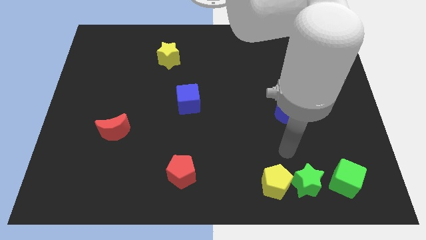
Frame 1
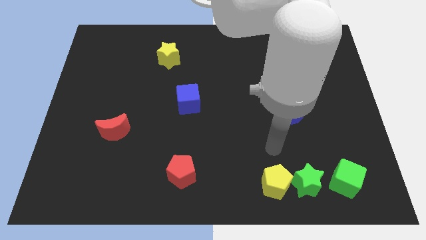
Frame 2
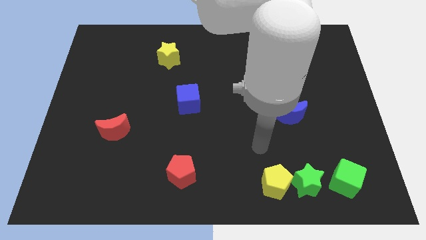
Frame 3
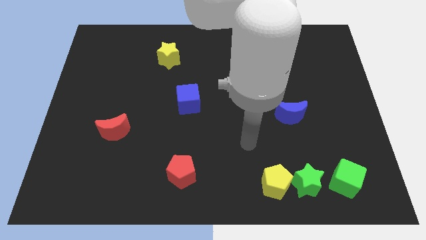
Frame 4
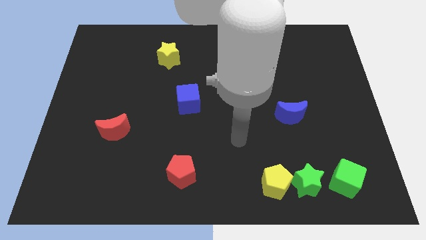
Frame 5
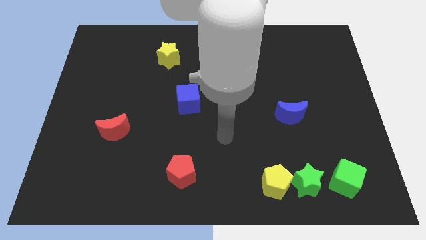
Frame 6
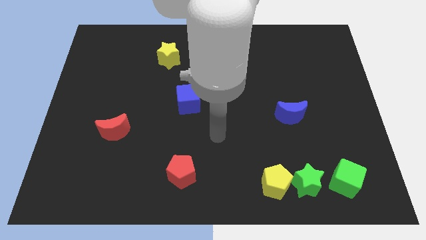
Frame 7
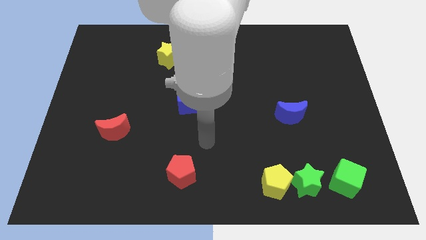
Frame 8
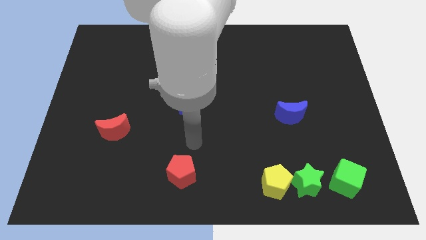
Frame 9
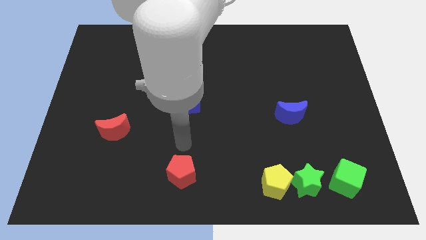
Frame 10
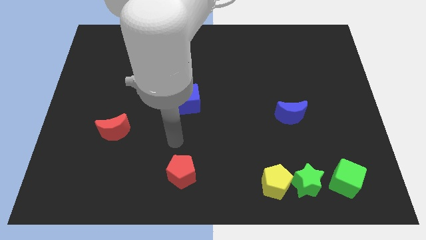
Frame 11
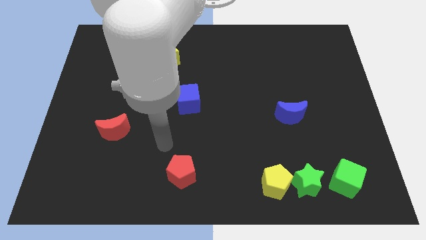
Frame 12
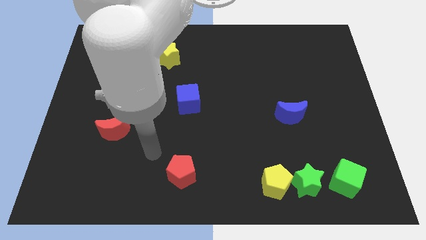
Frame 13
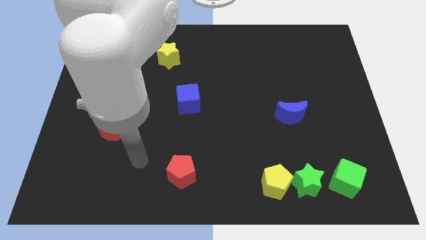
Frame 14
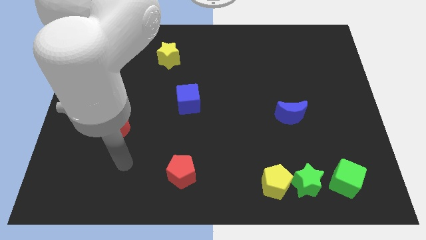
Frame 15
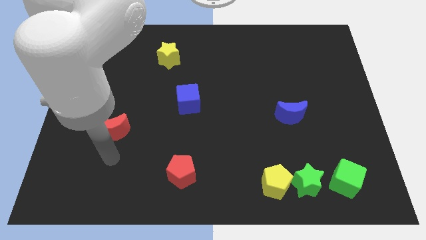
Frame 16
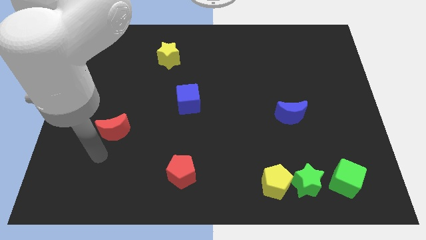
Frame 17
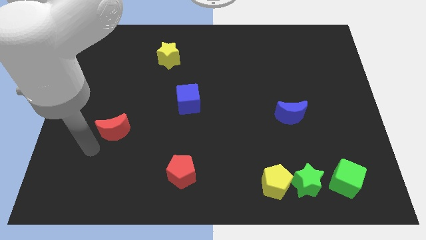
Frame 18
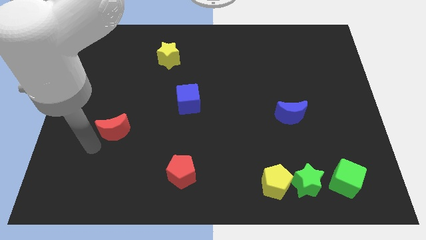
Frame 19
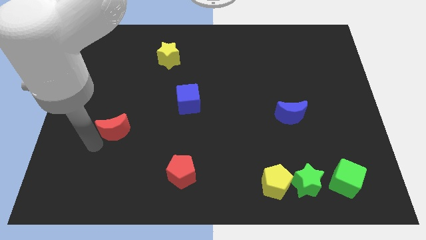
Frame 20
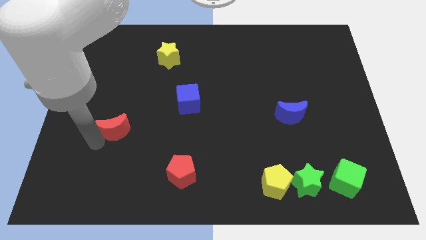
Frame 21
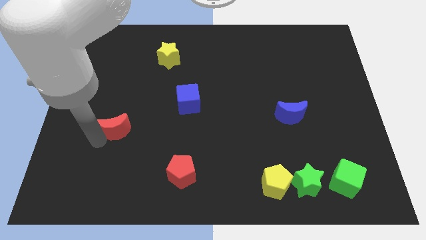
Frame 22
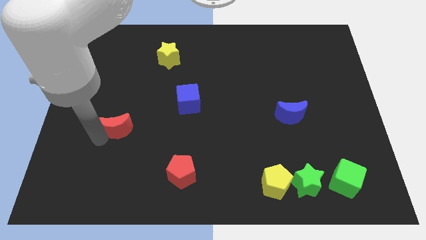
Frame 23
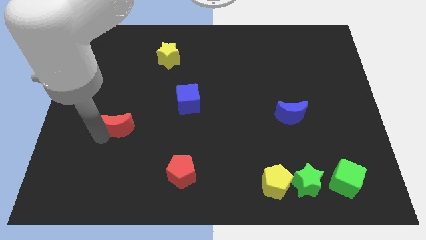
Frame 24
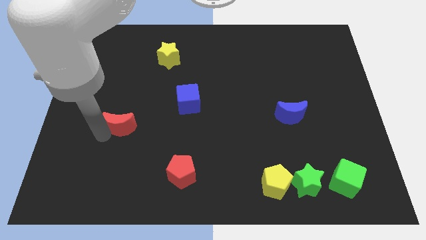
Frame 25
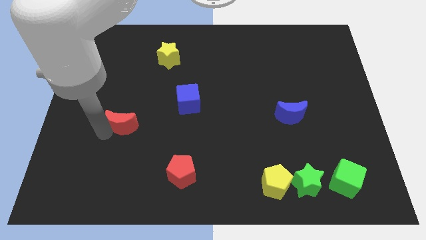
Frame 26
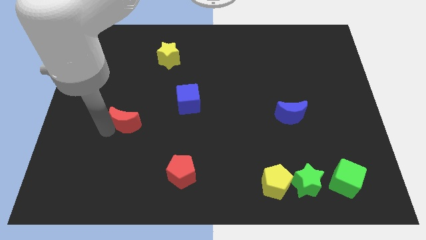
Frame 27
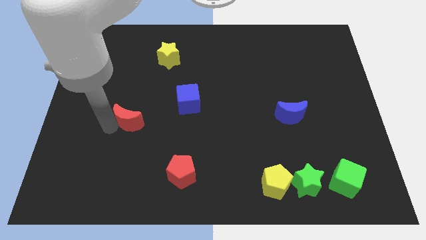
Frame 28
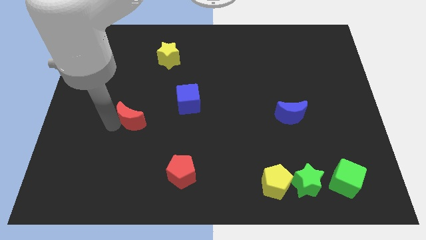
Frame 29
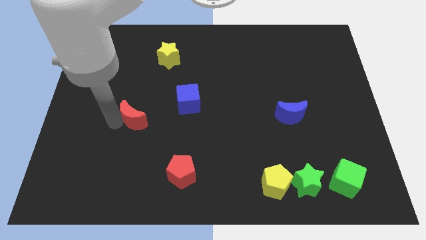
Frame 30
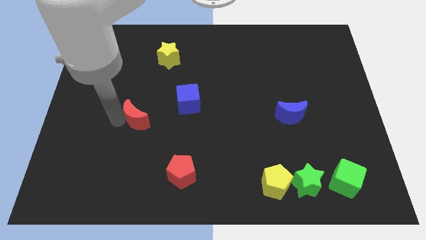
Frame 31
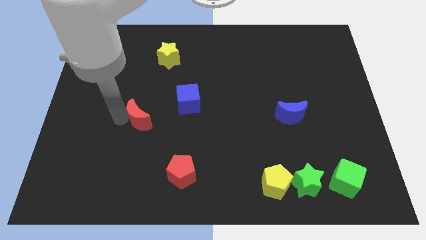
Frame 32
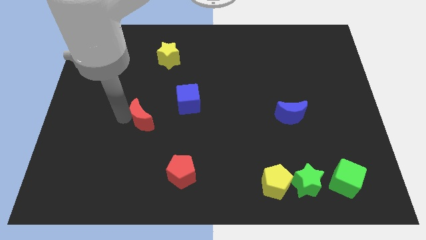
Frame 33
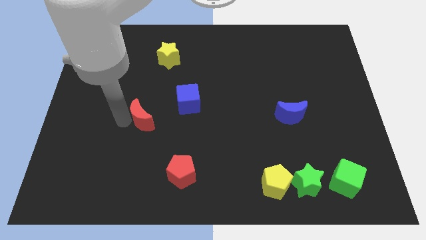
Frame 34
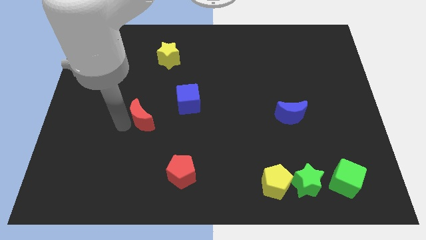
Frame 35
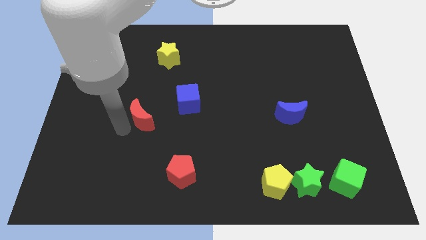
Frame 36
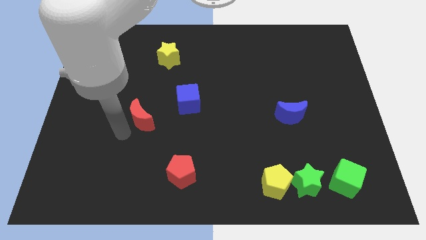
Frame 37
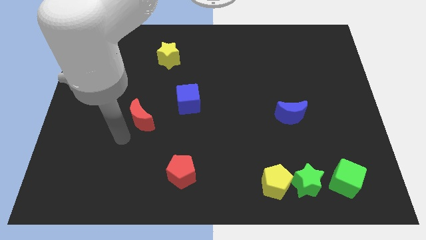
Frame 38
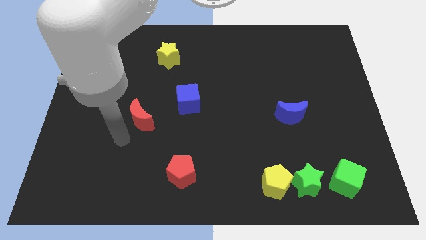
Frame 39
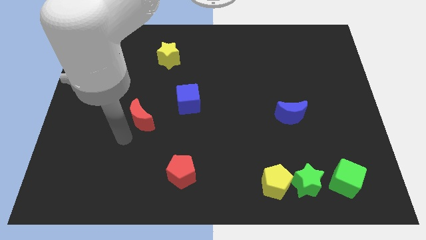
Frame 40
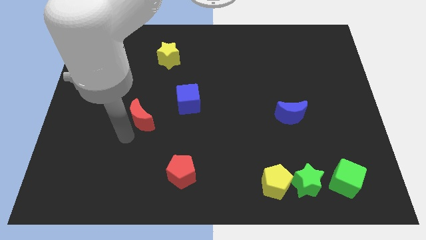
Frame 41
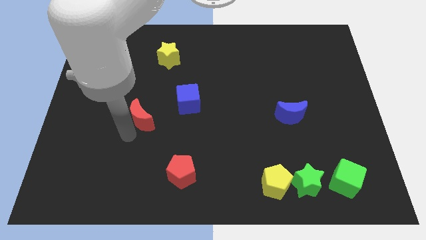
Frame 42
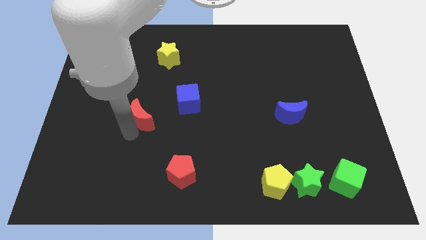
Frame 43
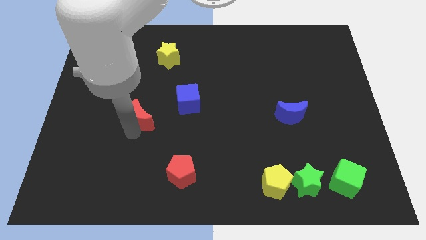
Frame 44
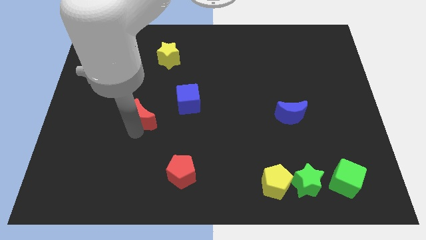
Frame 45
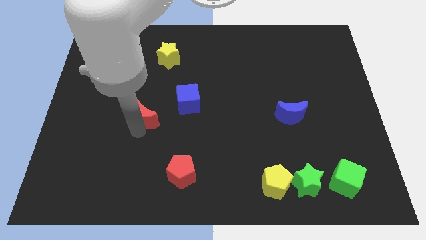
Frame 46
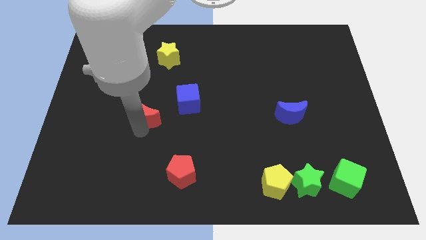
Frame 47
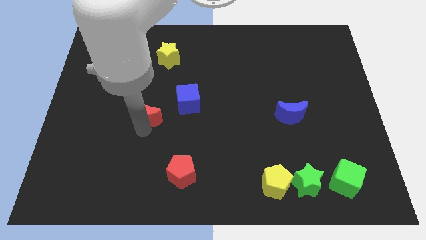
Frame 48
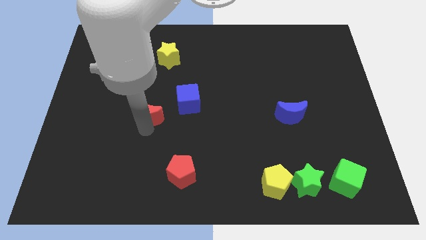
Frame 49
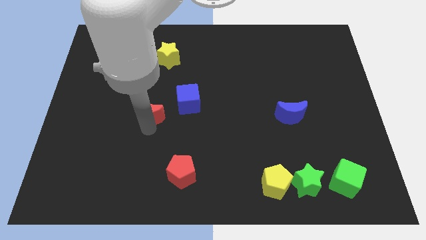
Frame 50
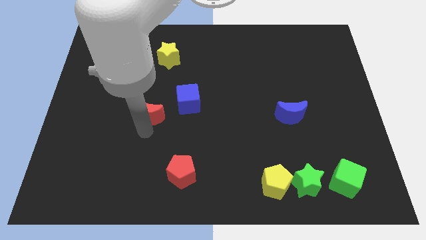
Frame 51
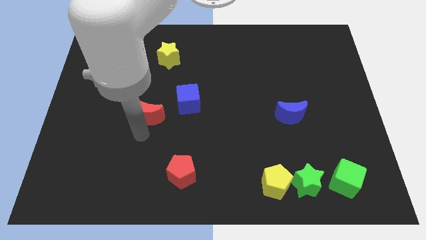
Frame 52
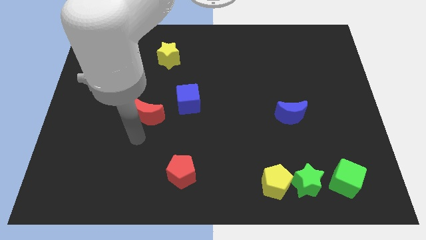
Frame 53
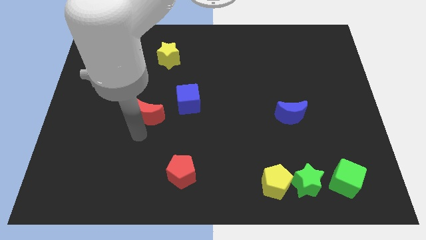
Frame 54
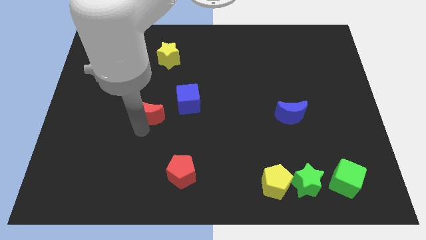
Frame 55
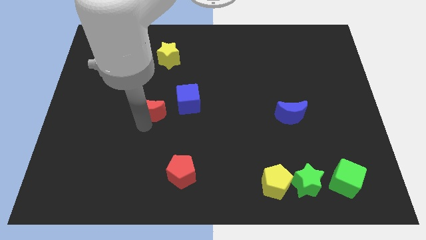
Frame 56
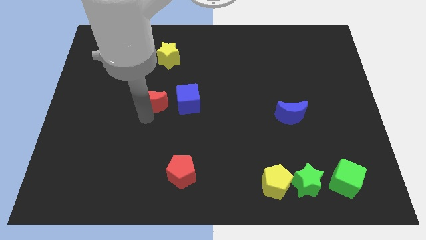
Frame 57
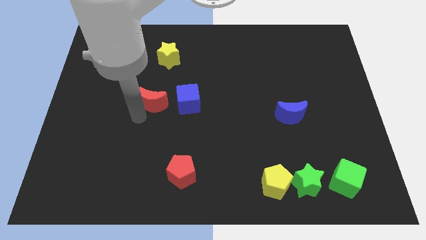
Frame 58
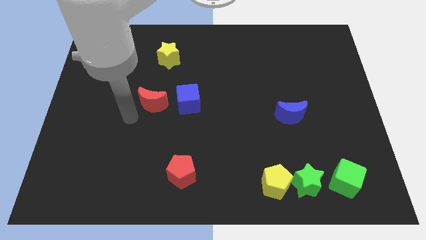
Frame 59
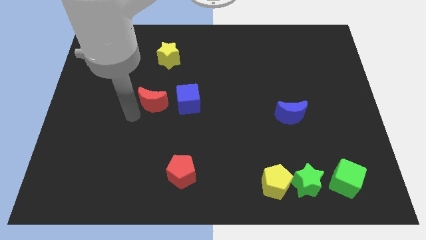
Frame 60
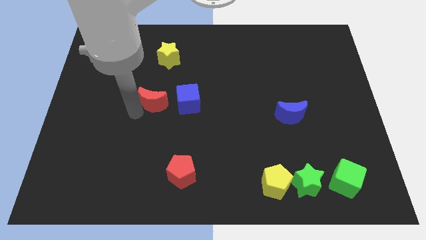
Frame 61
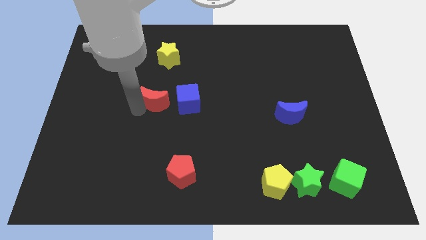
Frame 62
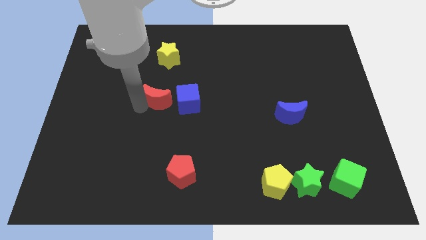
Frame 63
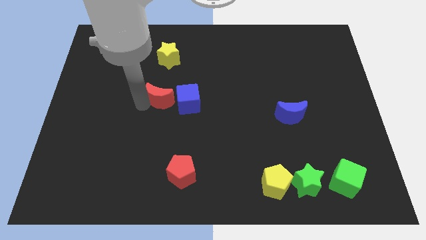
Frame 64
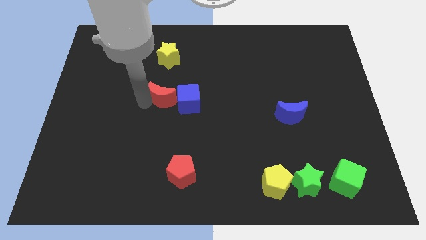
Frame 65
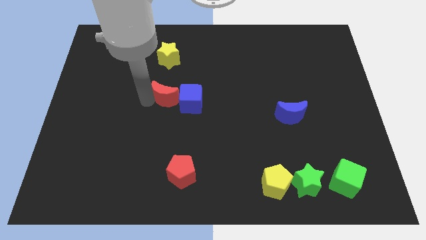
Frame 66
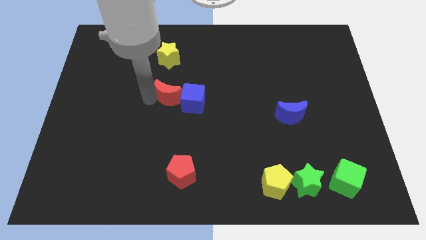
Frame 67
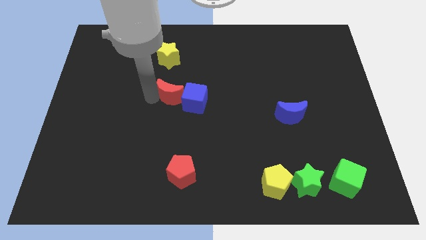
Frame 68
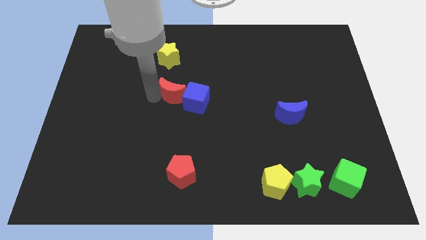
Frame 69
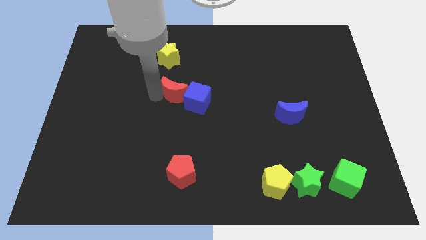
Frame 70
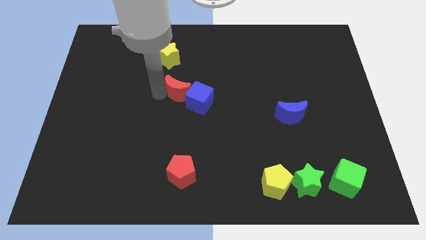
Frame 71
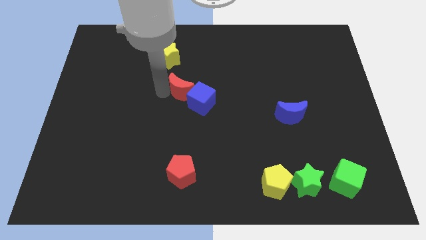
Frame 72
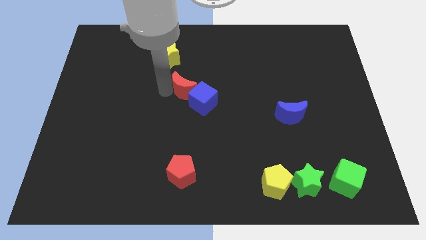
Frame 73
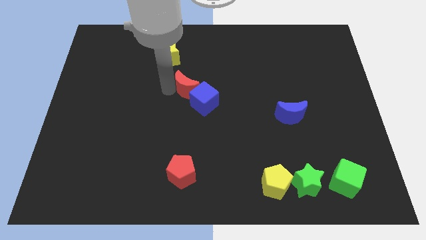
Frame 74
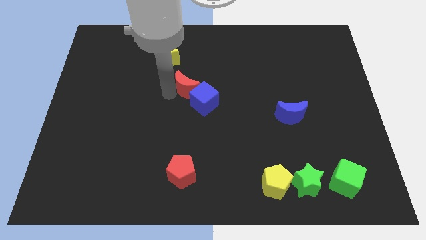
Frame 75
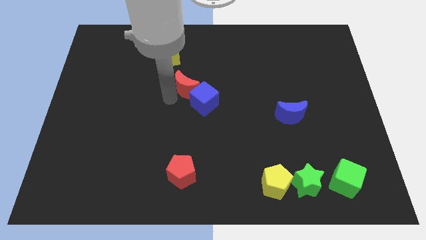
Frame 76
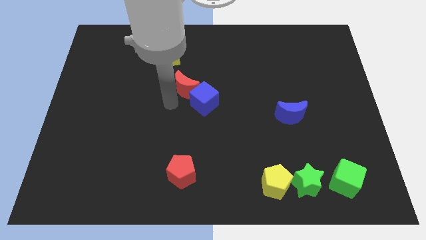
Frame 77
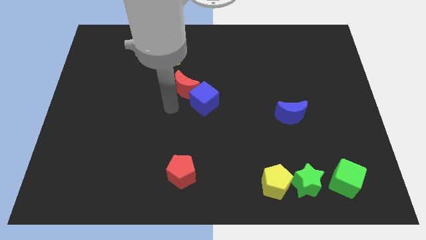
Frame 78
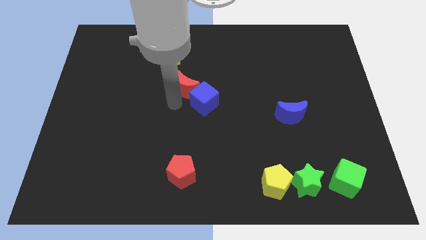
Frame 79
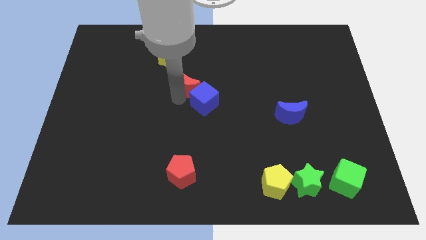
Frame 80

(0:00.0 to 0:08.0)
push the red moon up and then right

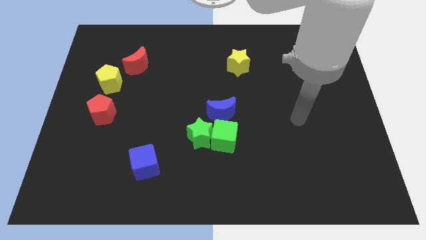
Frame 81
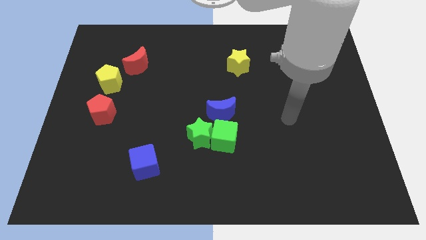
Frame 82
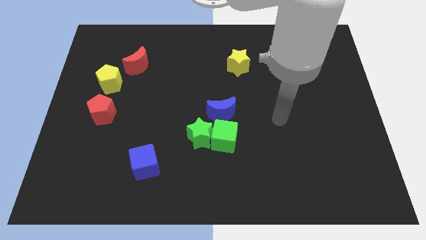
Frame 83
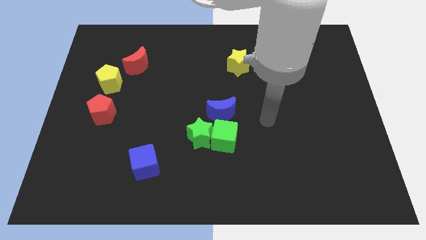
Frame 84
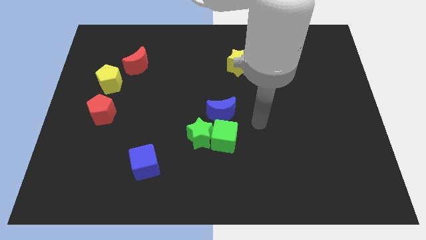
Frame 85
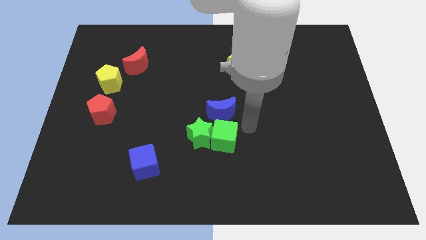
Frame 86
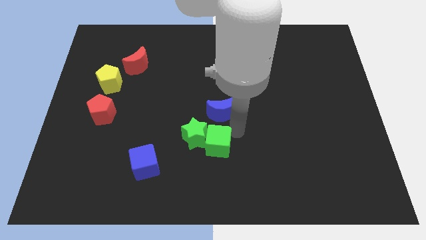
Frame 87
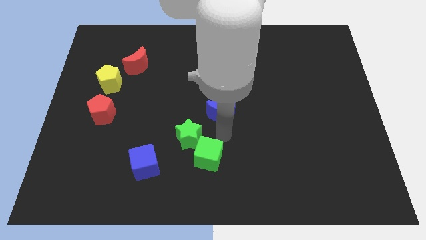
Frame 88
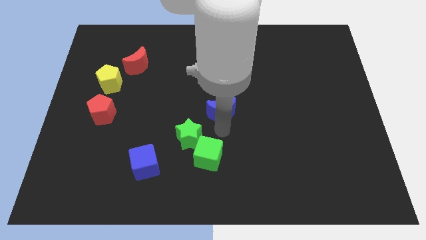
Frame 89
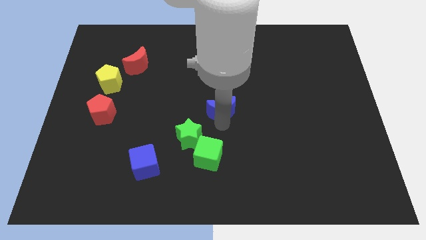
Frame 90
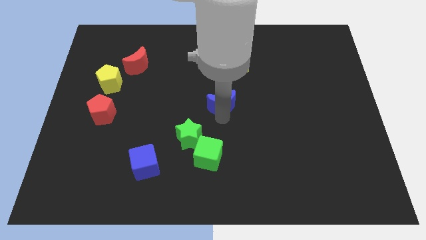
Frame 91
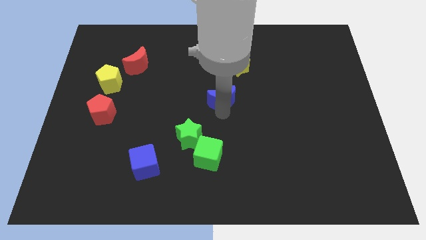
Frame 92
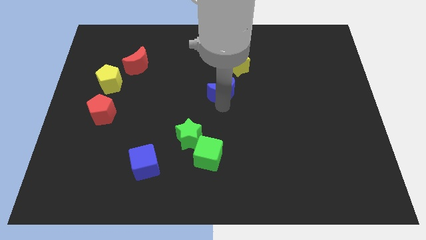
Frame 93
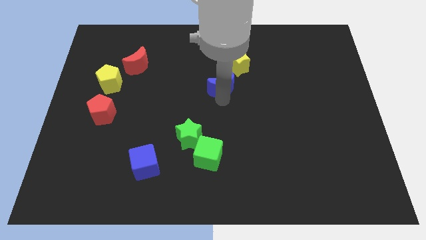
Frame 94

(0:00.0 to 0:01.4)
slide the blue moon somewhat upwards
